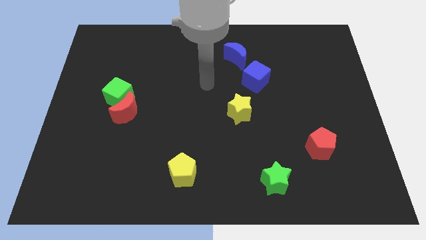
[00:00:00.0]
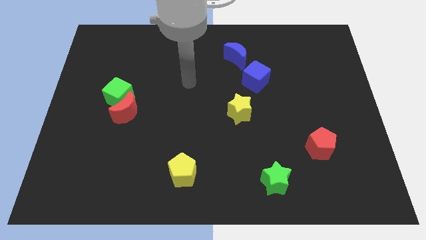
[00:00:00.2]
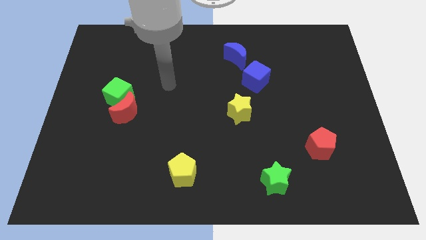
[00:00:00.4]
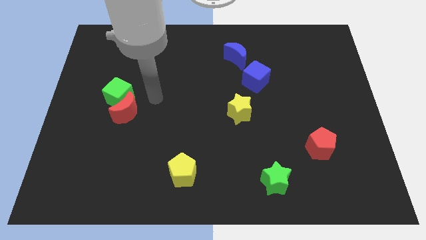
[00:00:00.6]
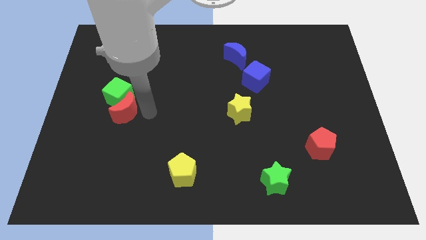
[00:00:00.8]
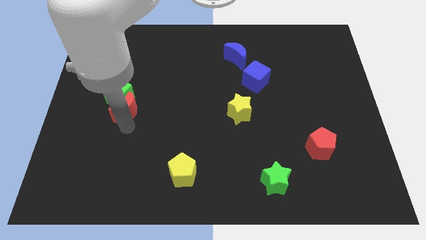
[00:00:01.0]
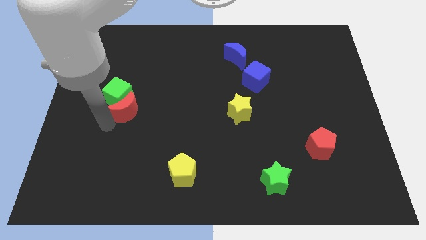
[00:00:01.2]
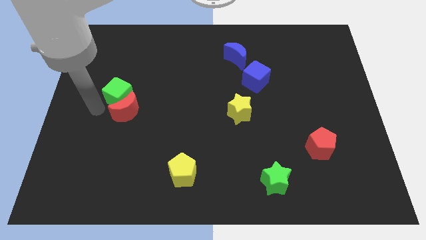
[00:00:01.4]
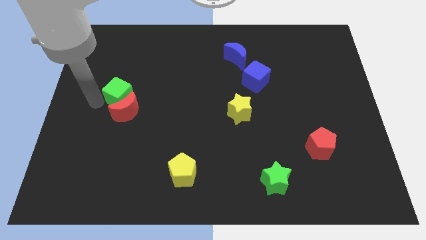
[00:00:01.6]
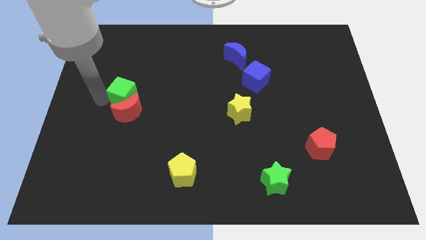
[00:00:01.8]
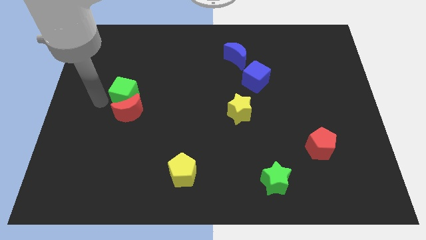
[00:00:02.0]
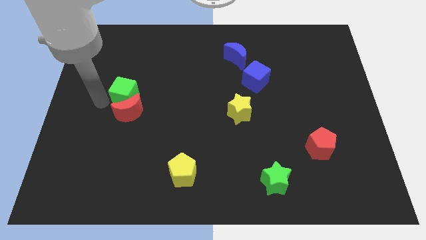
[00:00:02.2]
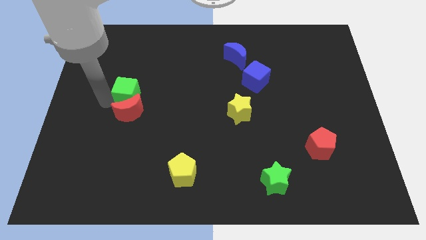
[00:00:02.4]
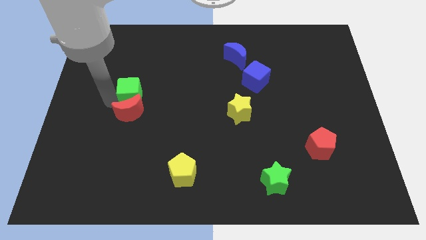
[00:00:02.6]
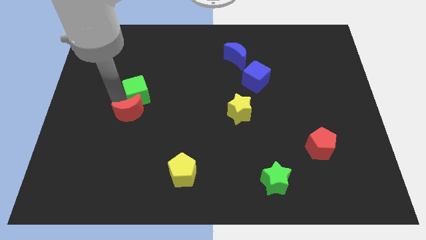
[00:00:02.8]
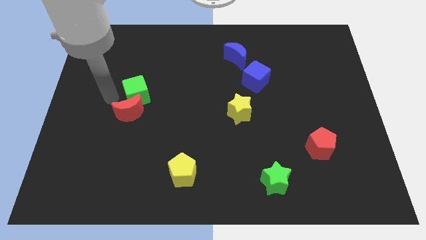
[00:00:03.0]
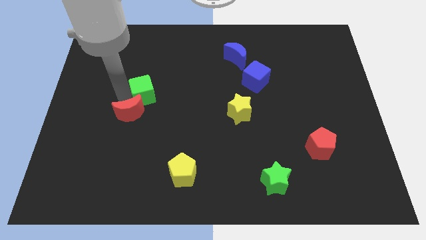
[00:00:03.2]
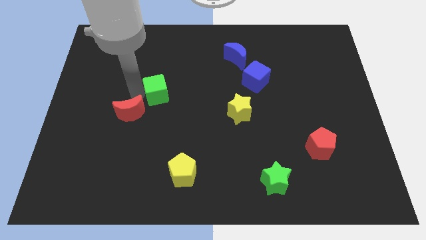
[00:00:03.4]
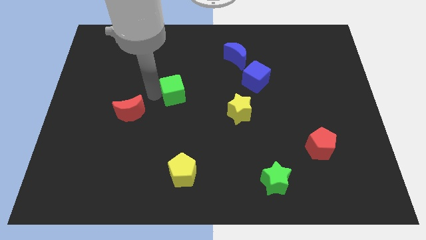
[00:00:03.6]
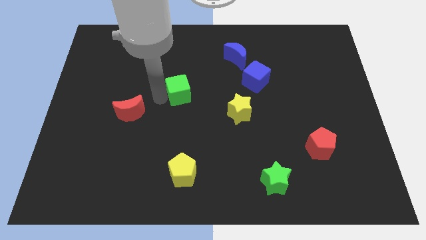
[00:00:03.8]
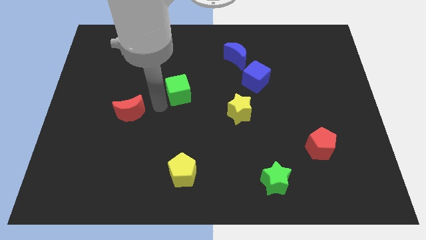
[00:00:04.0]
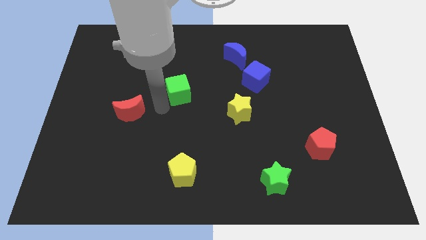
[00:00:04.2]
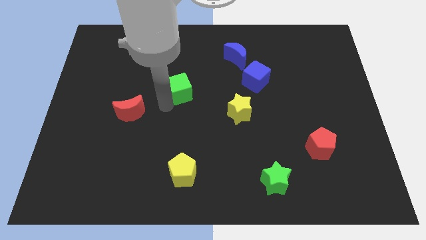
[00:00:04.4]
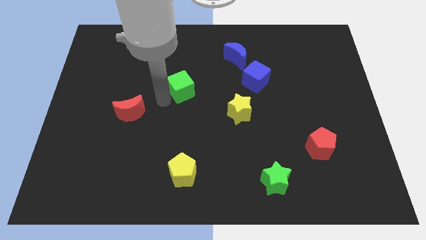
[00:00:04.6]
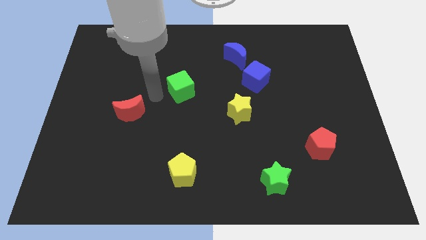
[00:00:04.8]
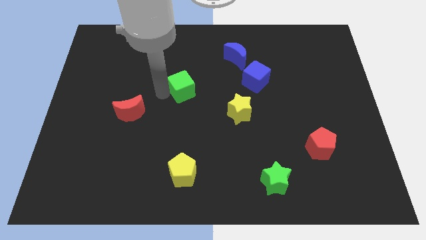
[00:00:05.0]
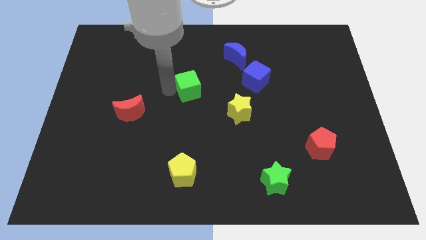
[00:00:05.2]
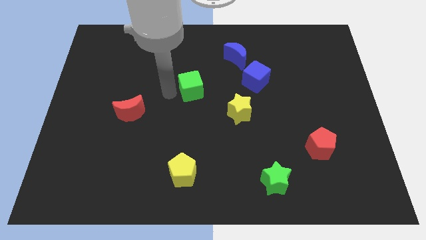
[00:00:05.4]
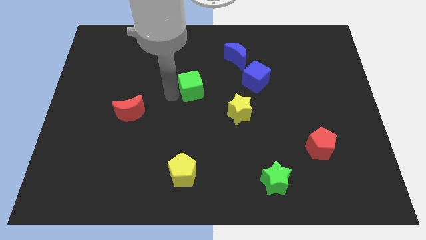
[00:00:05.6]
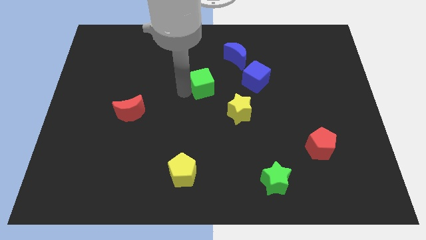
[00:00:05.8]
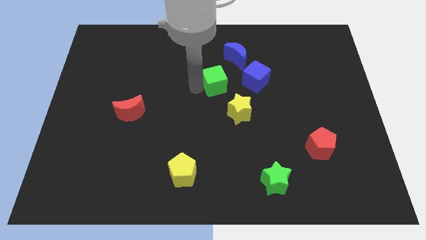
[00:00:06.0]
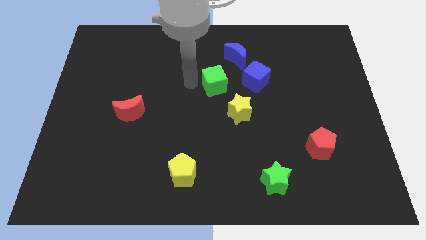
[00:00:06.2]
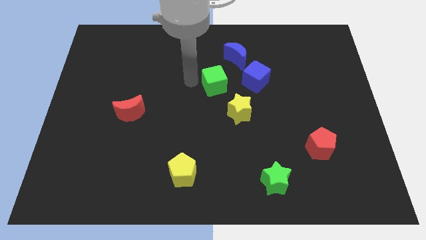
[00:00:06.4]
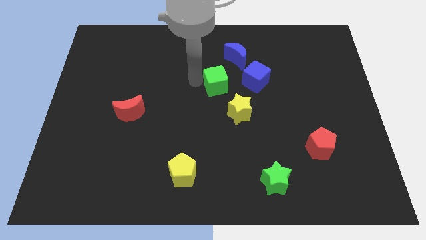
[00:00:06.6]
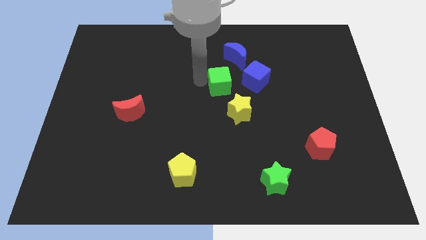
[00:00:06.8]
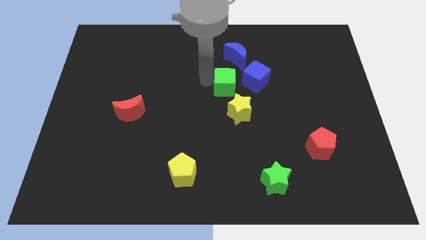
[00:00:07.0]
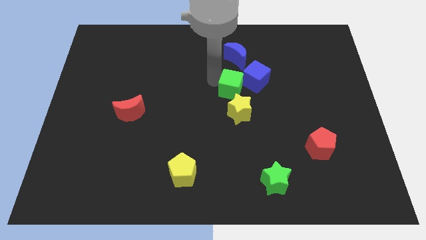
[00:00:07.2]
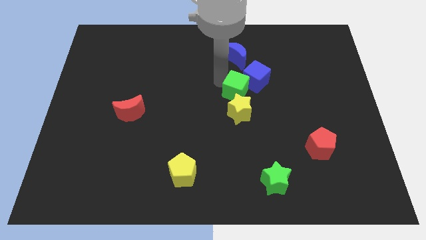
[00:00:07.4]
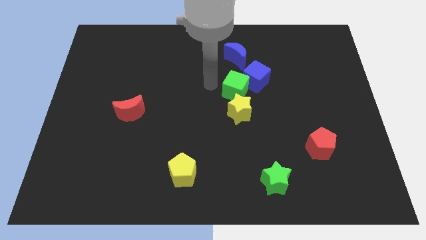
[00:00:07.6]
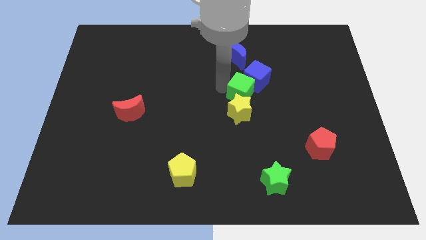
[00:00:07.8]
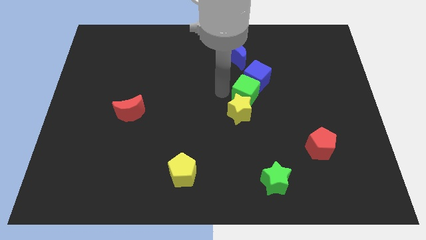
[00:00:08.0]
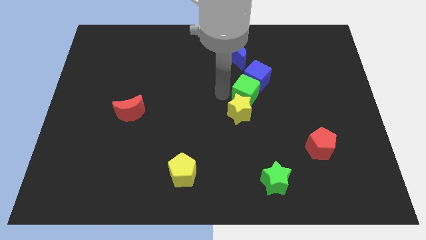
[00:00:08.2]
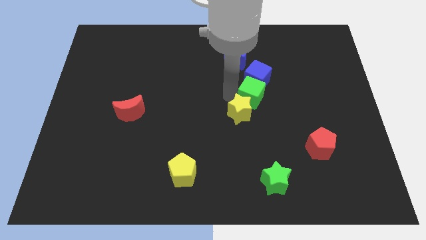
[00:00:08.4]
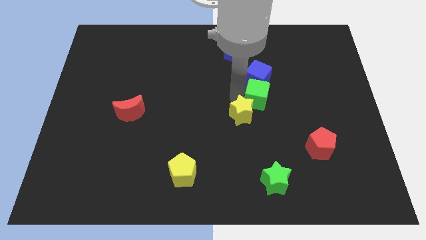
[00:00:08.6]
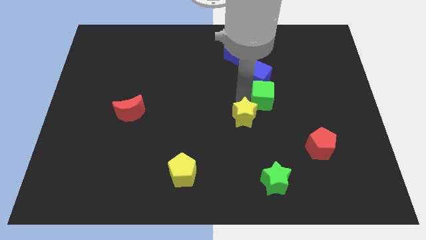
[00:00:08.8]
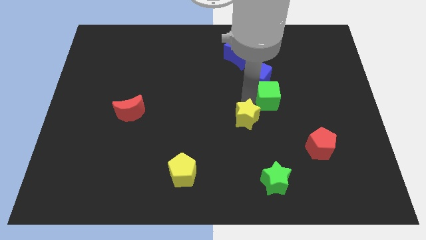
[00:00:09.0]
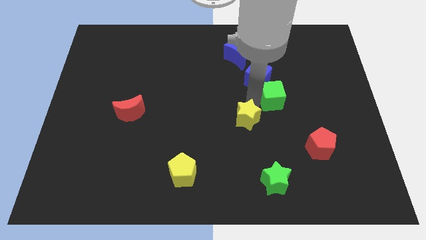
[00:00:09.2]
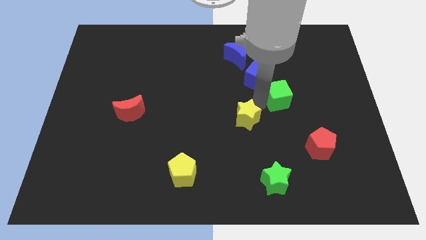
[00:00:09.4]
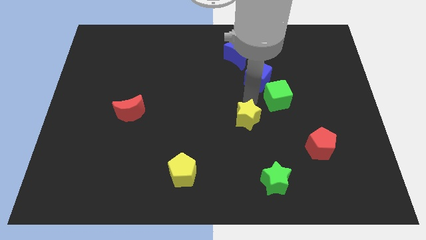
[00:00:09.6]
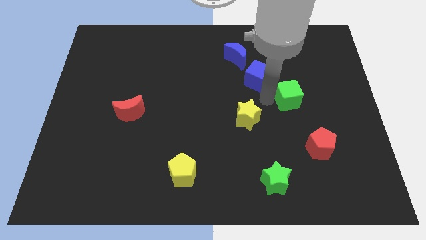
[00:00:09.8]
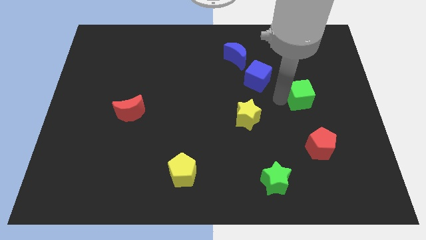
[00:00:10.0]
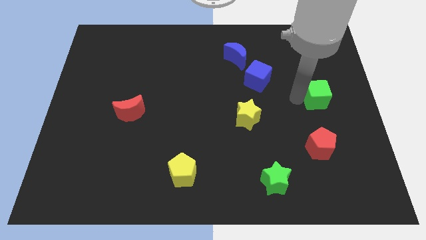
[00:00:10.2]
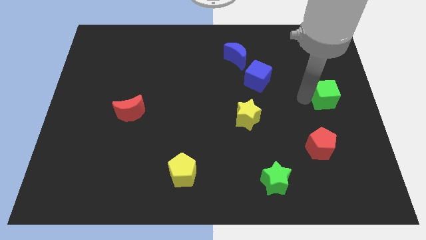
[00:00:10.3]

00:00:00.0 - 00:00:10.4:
push the green cube to the right side

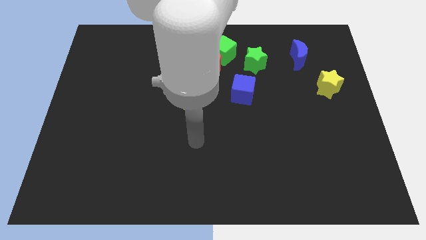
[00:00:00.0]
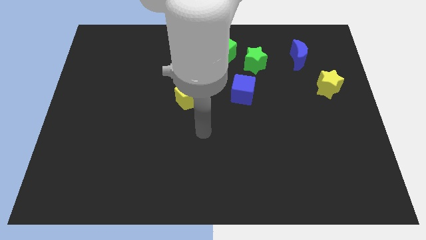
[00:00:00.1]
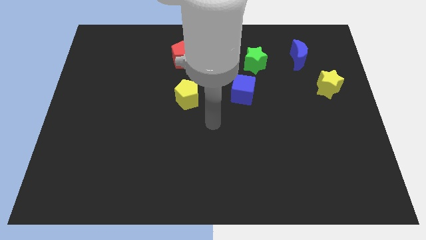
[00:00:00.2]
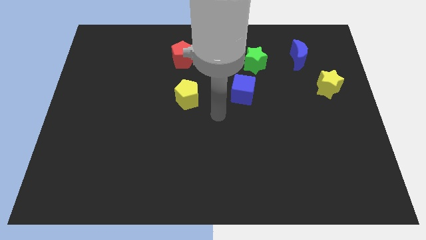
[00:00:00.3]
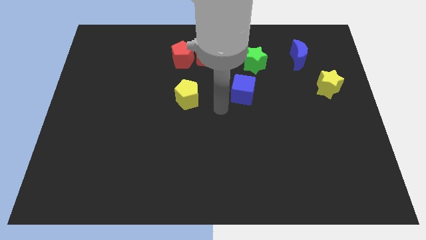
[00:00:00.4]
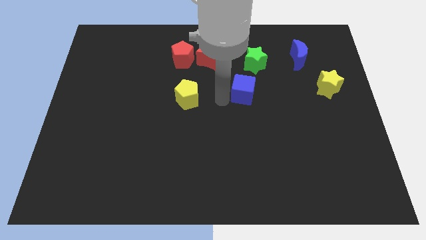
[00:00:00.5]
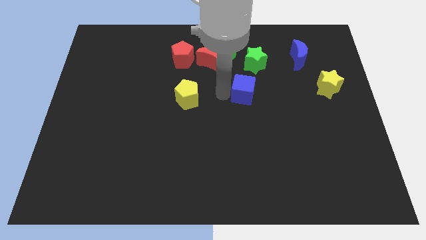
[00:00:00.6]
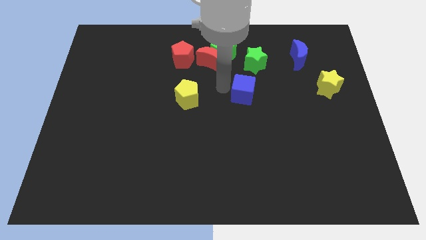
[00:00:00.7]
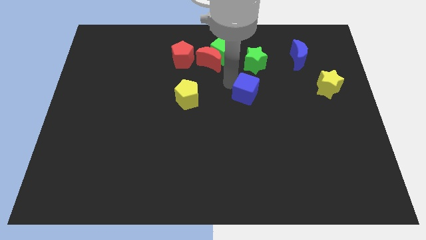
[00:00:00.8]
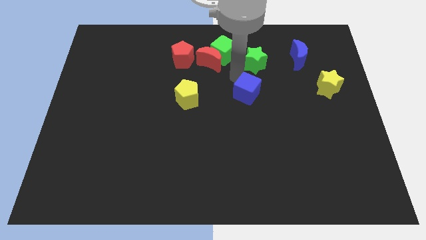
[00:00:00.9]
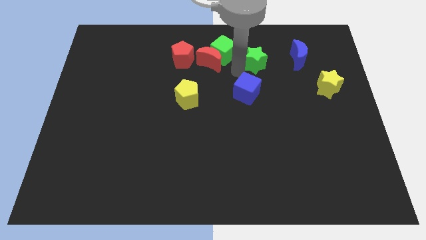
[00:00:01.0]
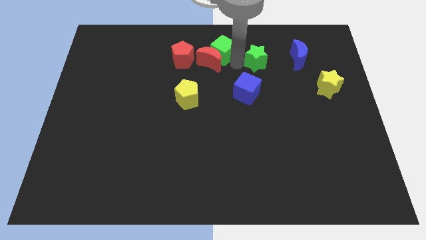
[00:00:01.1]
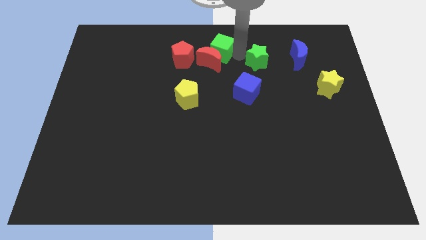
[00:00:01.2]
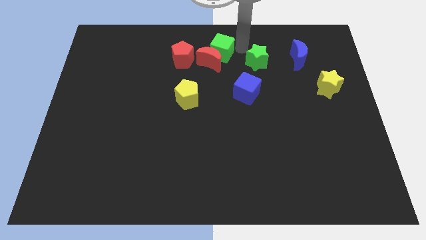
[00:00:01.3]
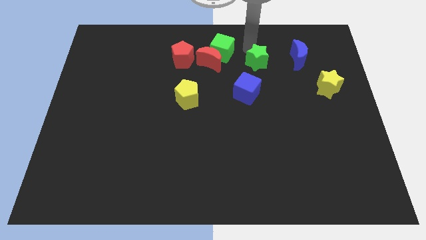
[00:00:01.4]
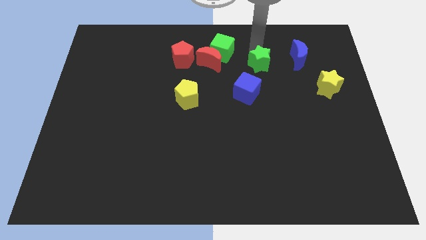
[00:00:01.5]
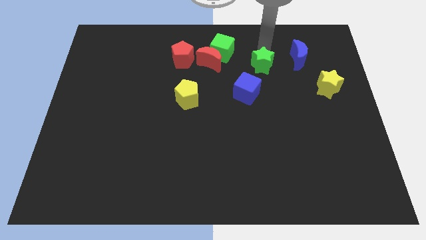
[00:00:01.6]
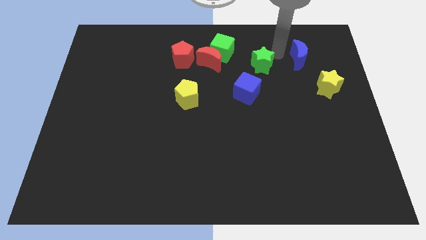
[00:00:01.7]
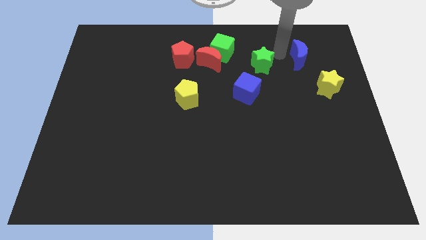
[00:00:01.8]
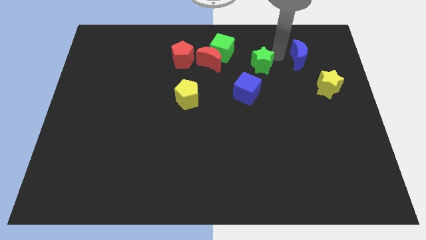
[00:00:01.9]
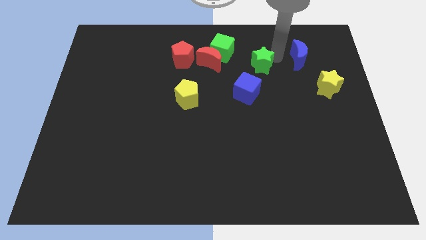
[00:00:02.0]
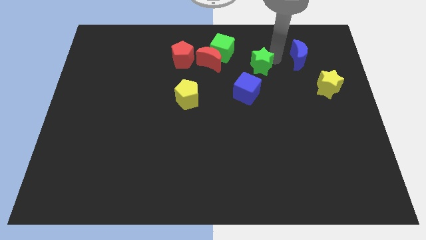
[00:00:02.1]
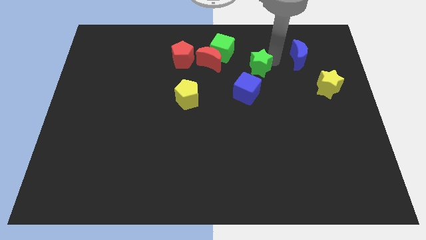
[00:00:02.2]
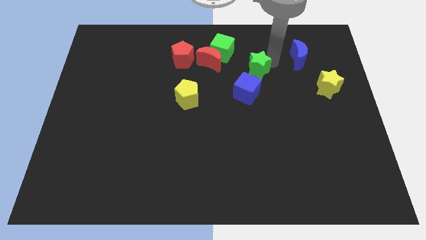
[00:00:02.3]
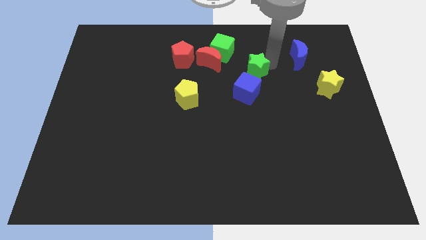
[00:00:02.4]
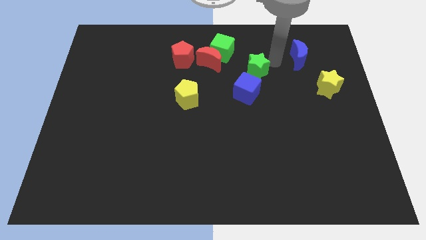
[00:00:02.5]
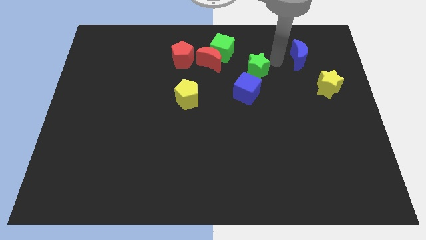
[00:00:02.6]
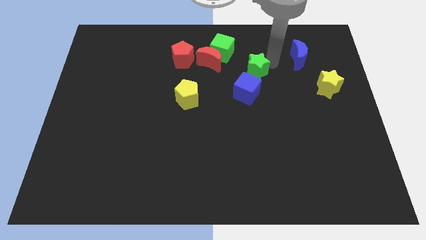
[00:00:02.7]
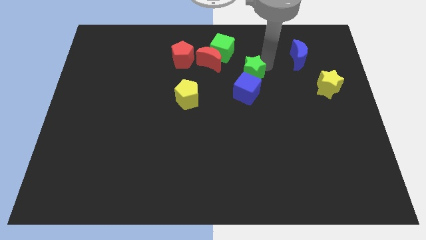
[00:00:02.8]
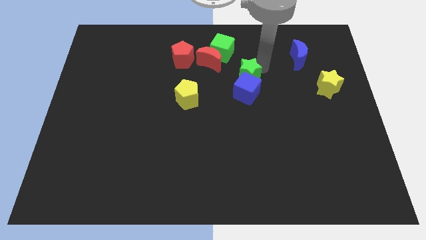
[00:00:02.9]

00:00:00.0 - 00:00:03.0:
push the green star to the center

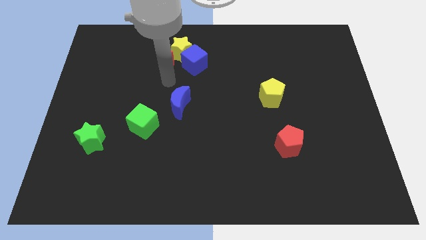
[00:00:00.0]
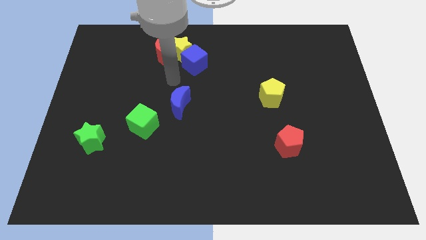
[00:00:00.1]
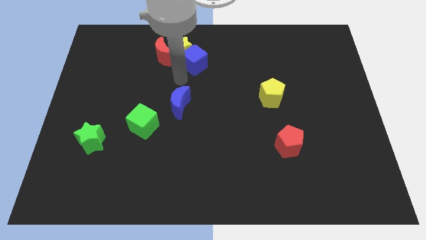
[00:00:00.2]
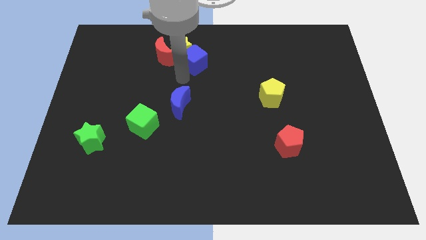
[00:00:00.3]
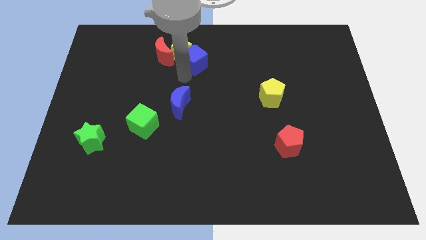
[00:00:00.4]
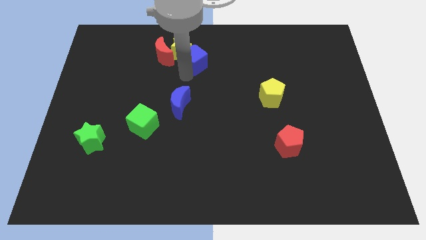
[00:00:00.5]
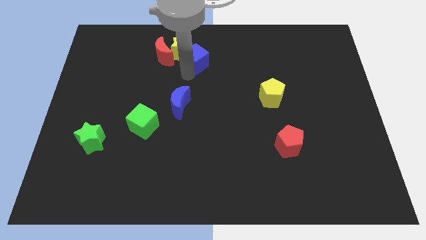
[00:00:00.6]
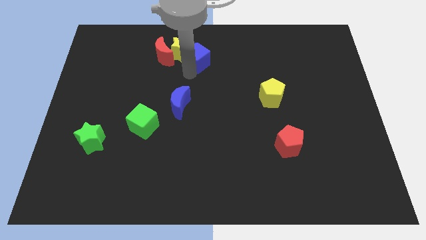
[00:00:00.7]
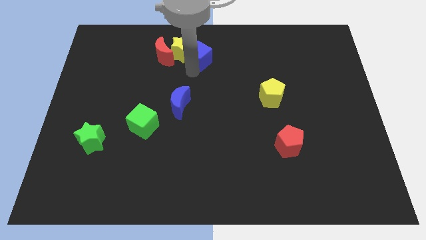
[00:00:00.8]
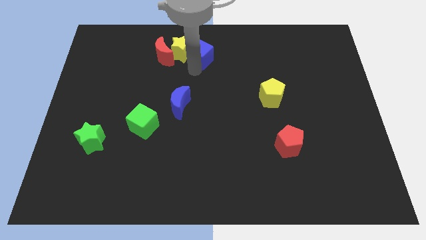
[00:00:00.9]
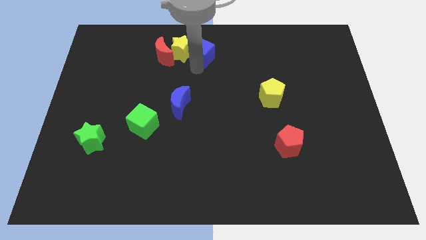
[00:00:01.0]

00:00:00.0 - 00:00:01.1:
slide the blue cube to the top
